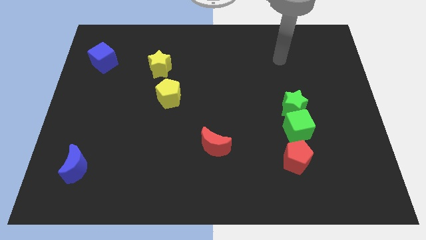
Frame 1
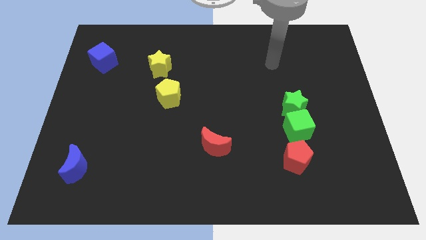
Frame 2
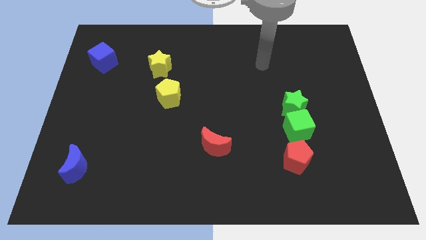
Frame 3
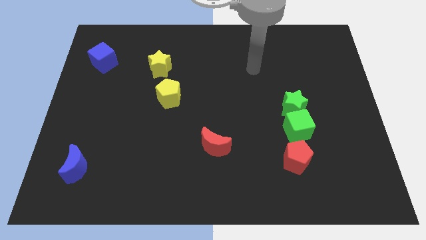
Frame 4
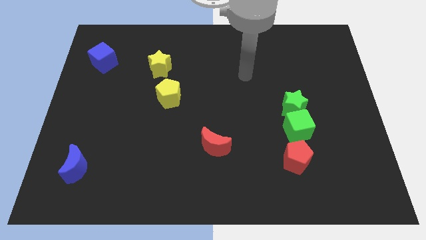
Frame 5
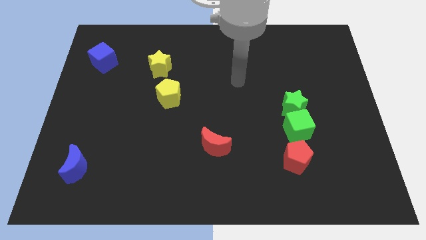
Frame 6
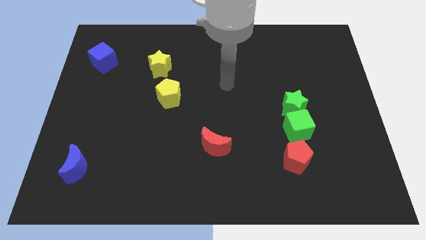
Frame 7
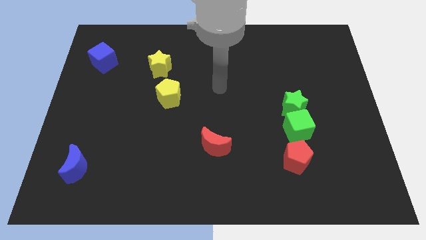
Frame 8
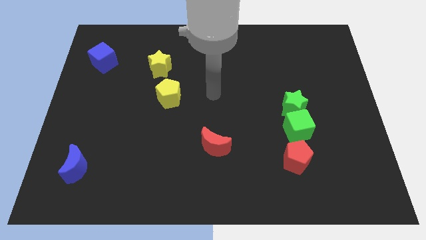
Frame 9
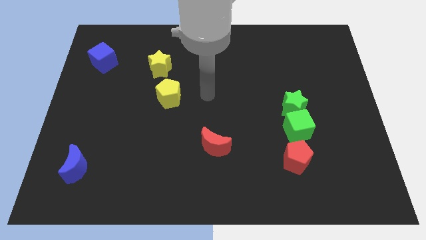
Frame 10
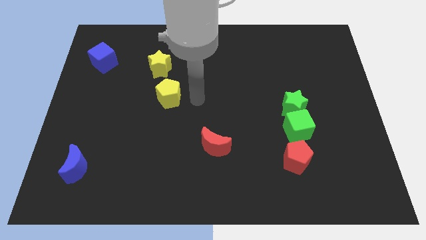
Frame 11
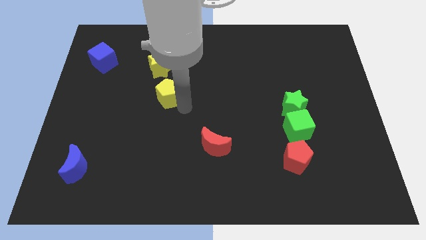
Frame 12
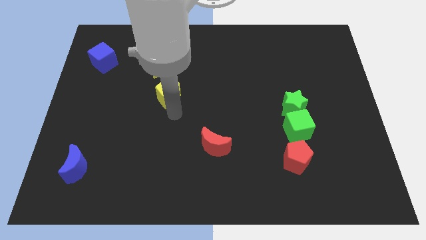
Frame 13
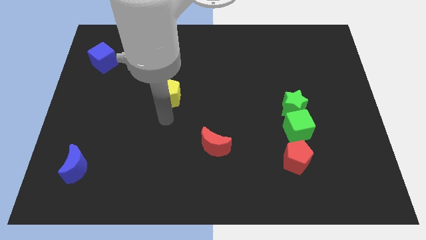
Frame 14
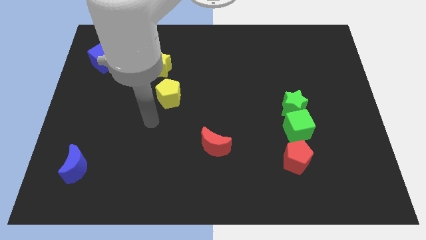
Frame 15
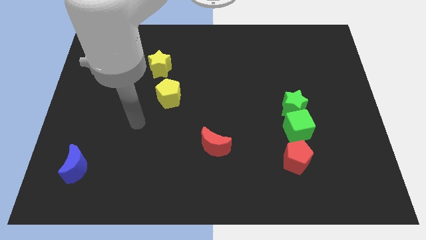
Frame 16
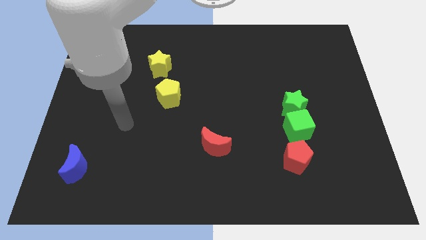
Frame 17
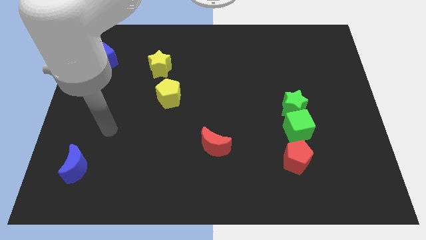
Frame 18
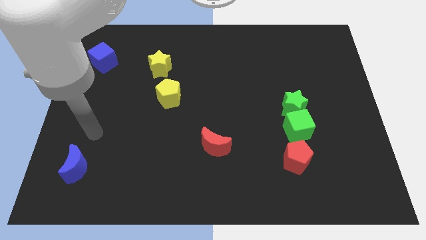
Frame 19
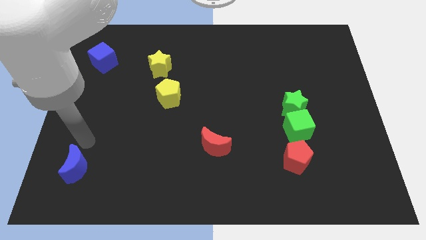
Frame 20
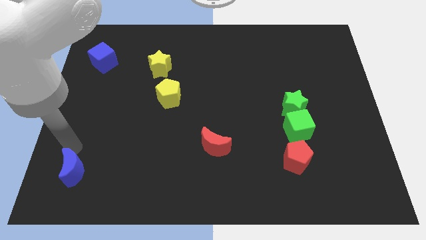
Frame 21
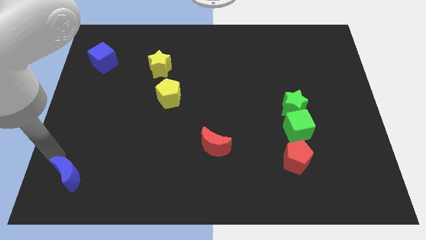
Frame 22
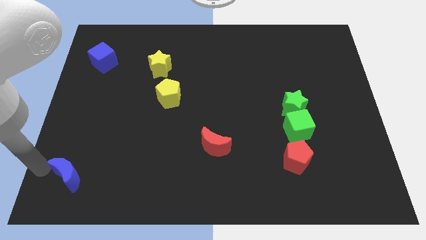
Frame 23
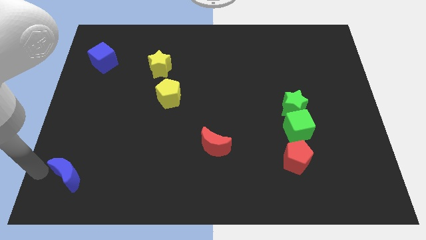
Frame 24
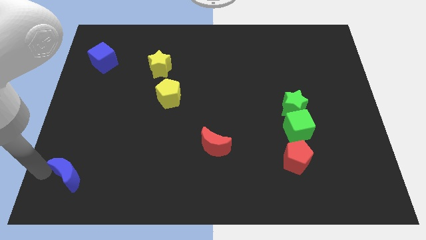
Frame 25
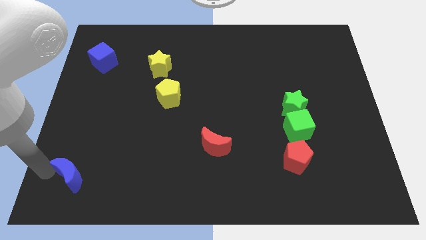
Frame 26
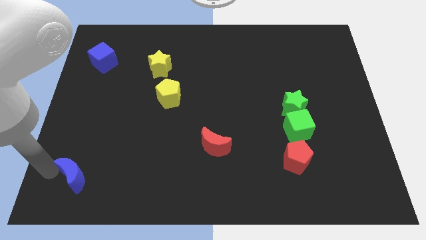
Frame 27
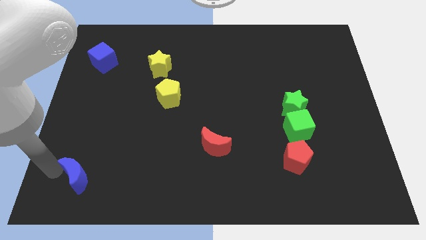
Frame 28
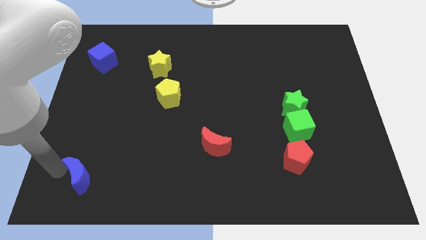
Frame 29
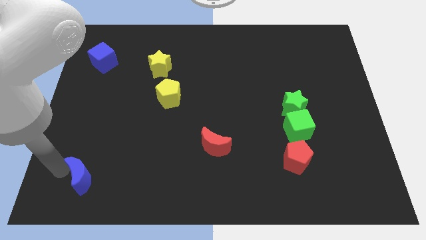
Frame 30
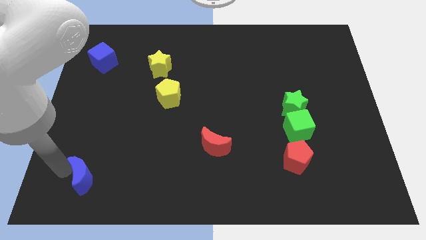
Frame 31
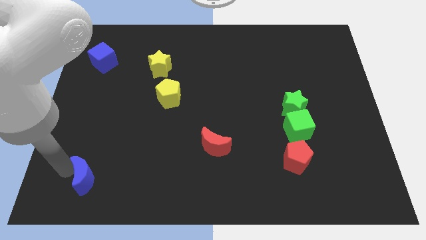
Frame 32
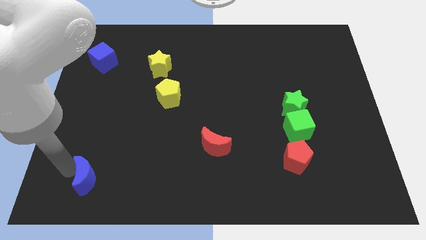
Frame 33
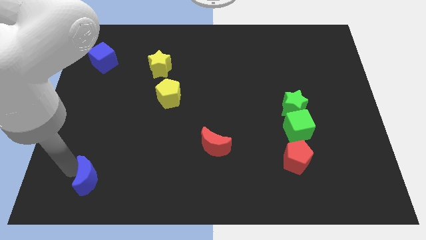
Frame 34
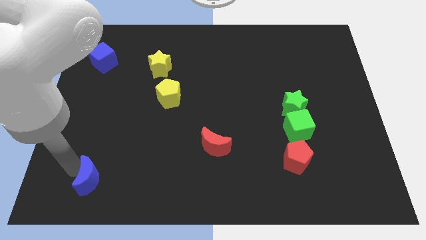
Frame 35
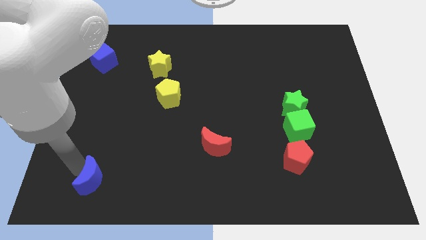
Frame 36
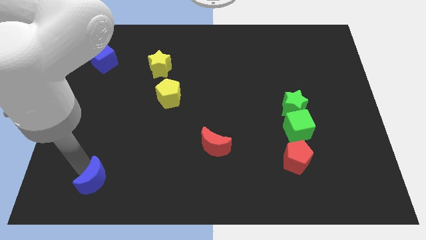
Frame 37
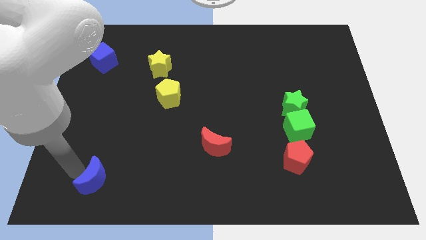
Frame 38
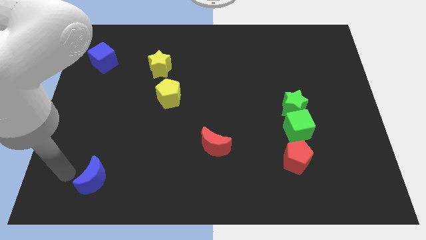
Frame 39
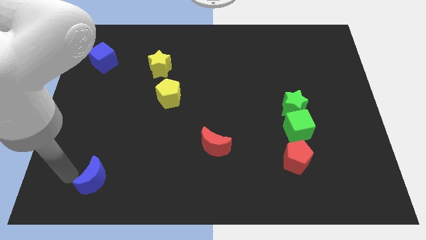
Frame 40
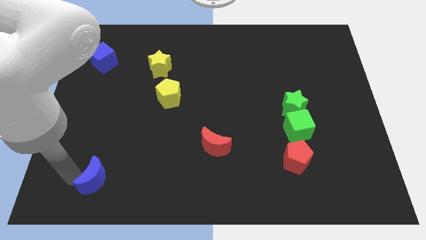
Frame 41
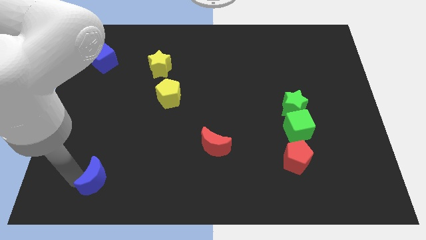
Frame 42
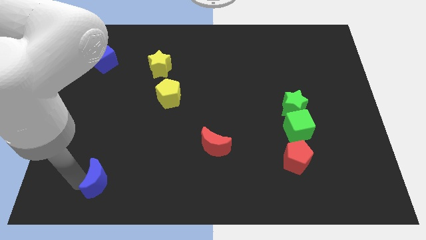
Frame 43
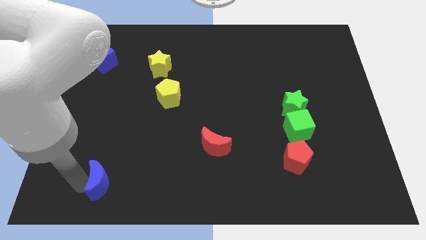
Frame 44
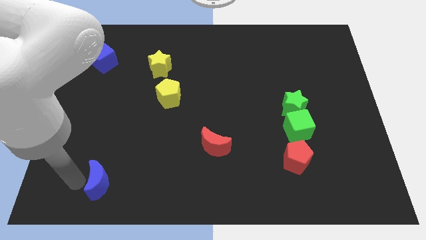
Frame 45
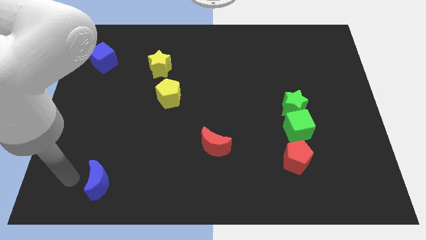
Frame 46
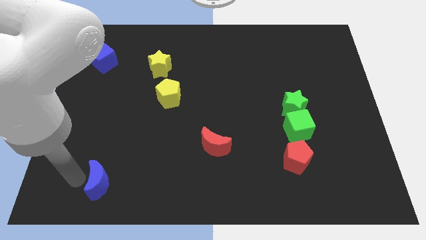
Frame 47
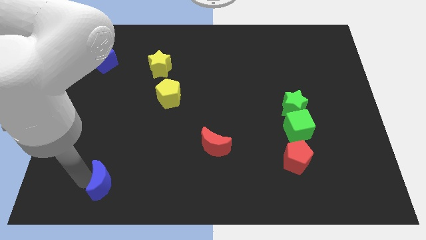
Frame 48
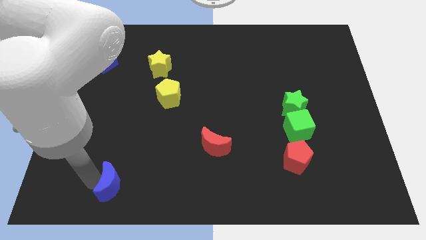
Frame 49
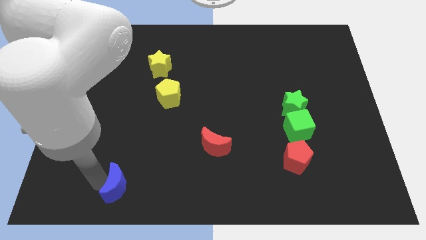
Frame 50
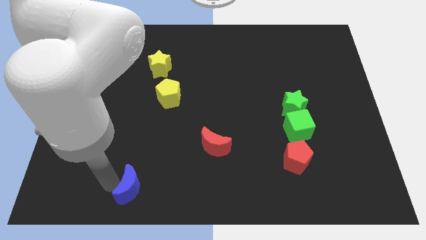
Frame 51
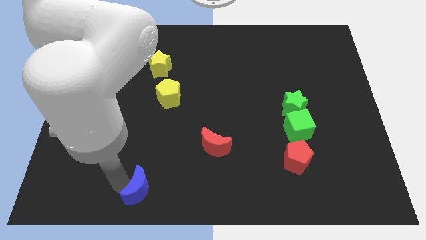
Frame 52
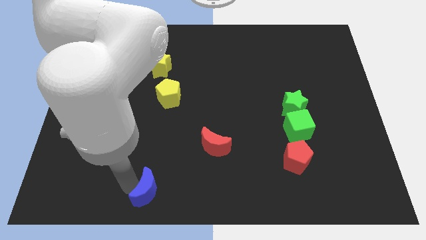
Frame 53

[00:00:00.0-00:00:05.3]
slide the blue moon to the bottom side
